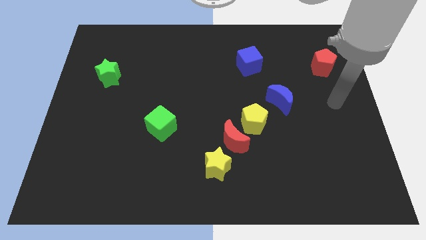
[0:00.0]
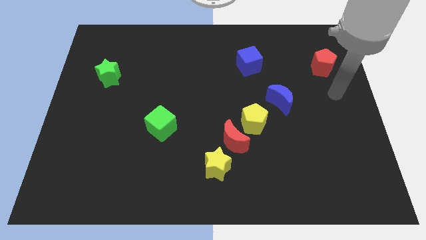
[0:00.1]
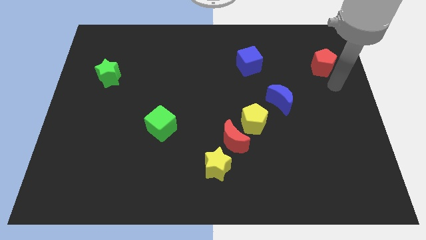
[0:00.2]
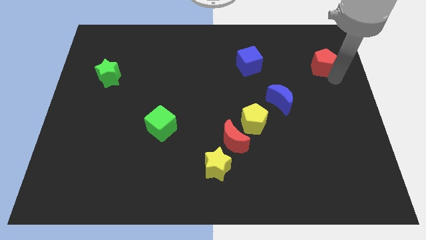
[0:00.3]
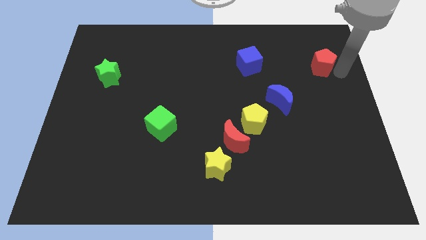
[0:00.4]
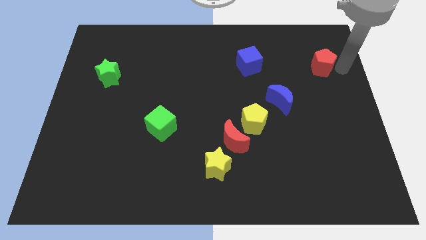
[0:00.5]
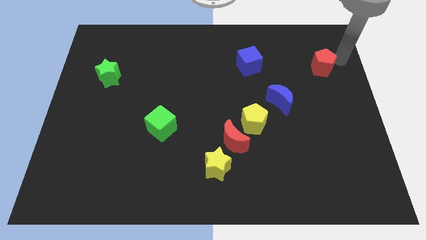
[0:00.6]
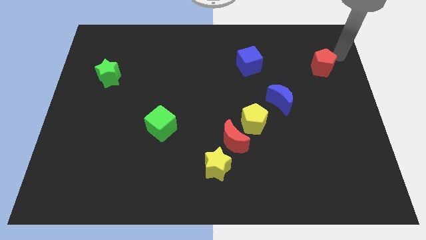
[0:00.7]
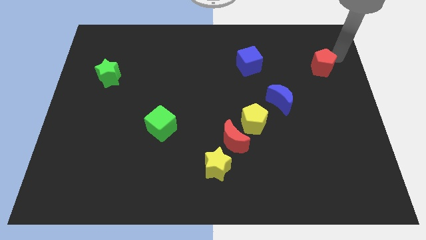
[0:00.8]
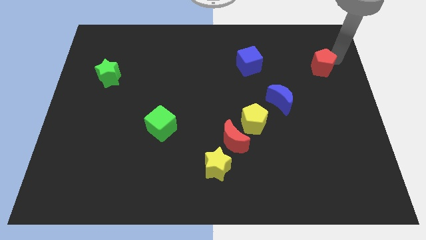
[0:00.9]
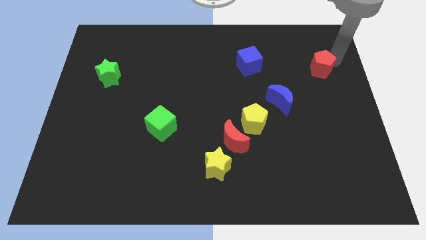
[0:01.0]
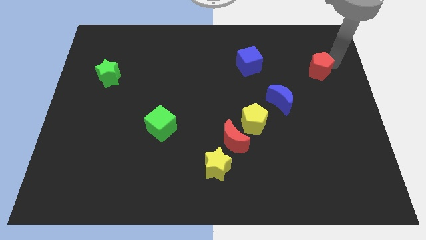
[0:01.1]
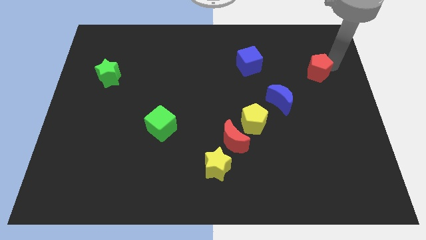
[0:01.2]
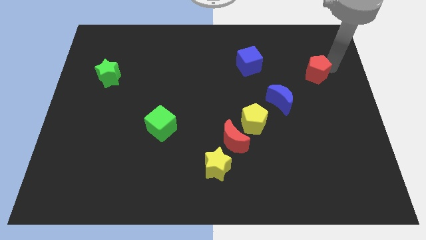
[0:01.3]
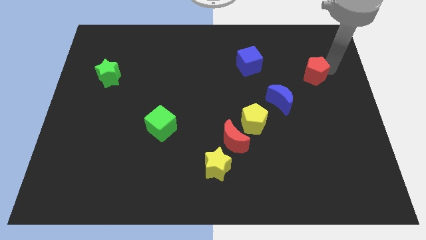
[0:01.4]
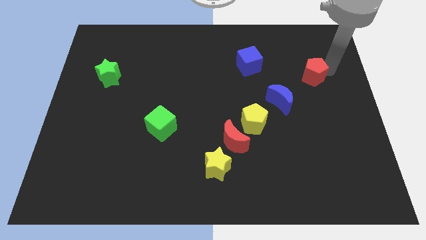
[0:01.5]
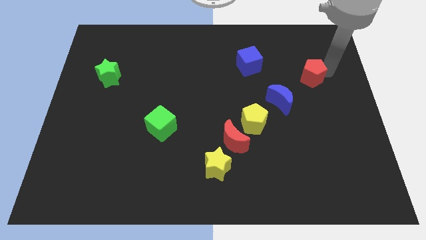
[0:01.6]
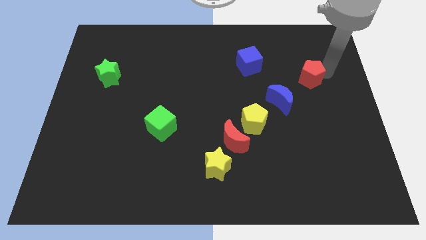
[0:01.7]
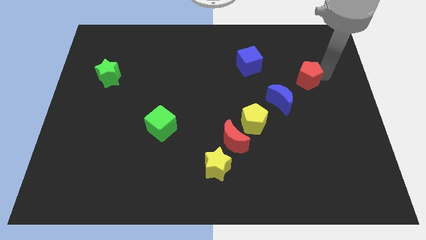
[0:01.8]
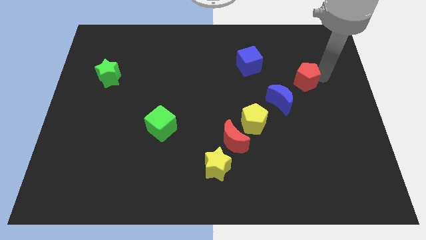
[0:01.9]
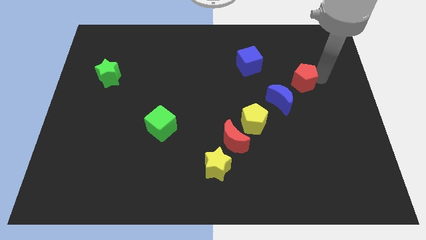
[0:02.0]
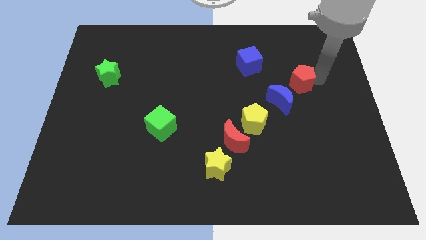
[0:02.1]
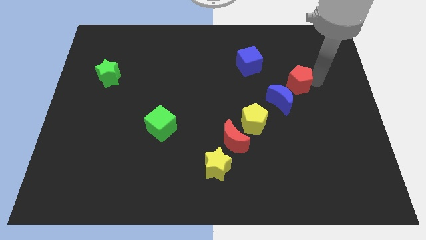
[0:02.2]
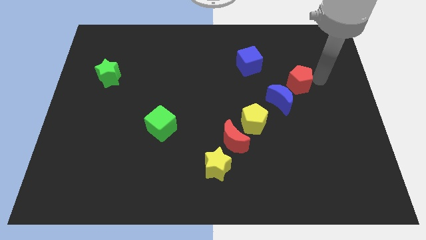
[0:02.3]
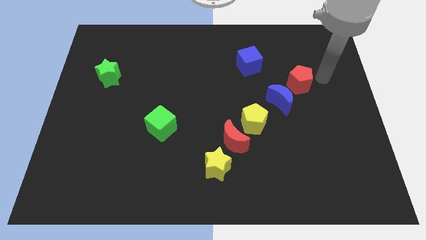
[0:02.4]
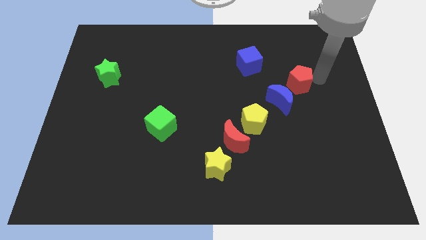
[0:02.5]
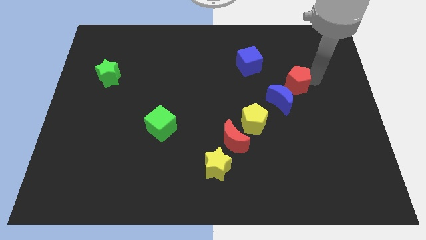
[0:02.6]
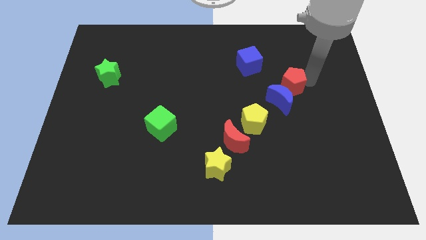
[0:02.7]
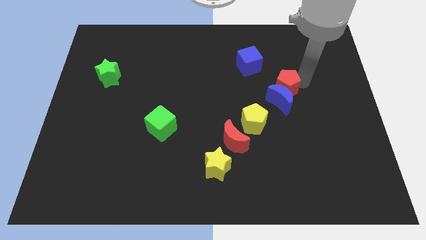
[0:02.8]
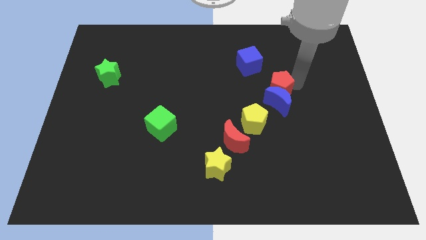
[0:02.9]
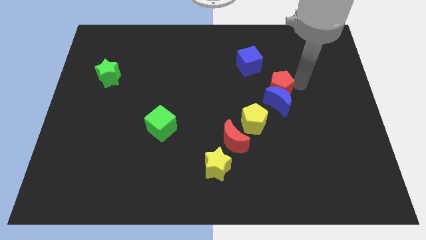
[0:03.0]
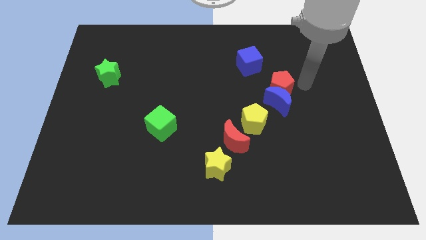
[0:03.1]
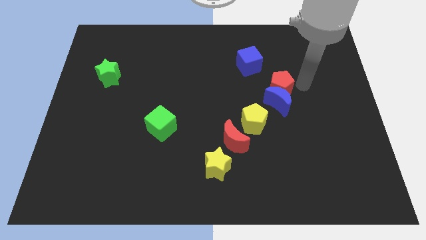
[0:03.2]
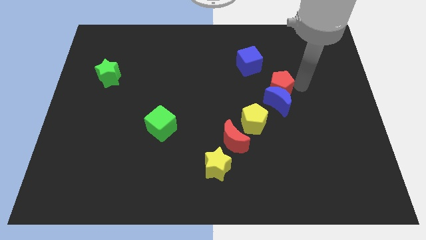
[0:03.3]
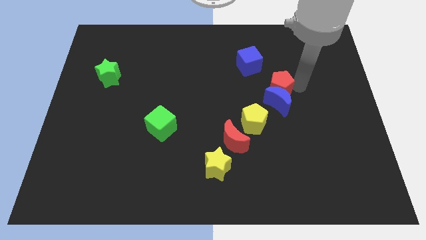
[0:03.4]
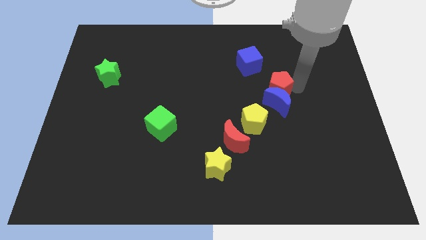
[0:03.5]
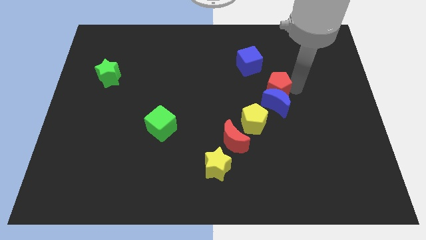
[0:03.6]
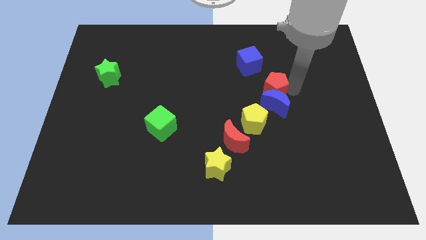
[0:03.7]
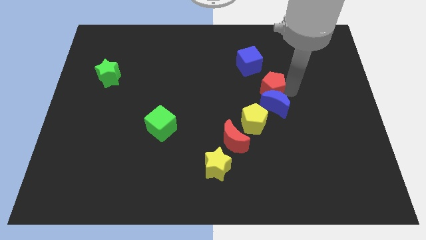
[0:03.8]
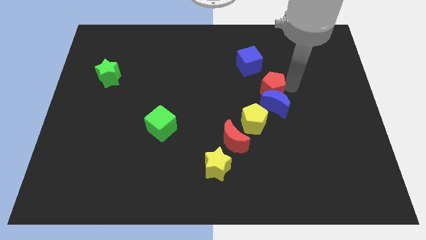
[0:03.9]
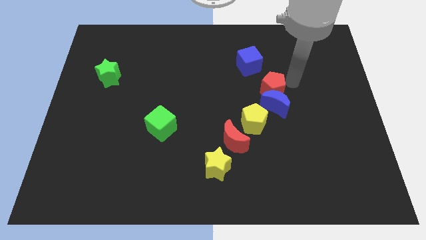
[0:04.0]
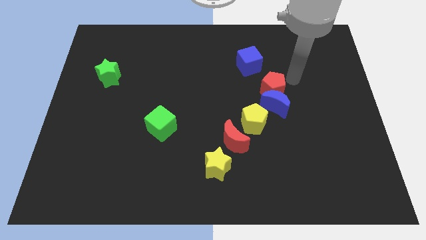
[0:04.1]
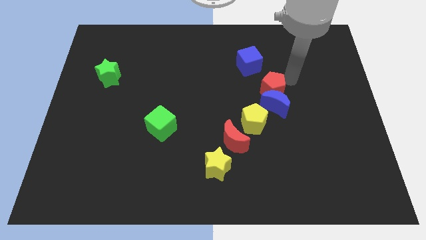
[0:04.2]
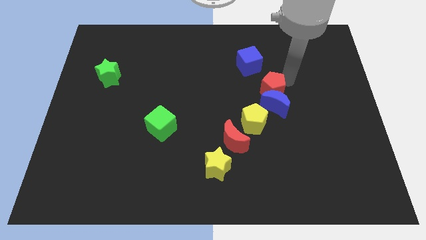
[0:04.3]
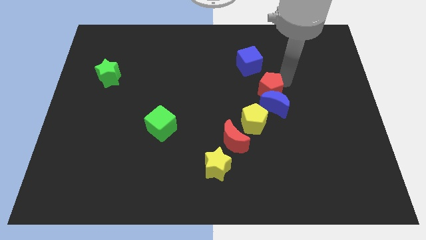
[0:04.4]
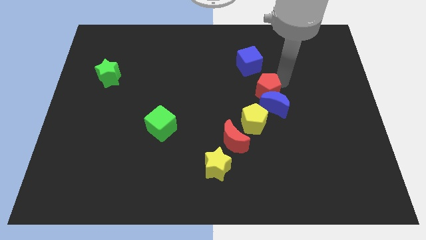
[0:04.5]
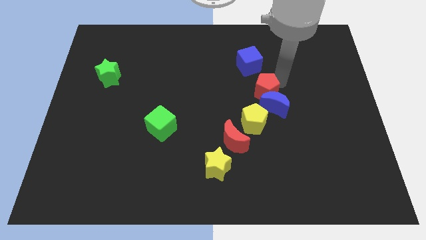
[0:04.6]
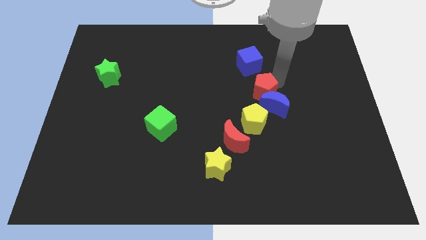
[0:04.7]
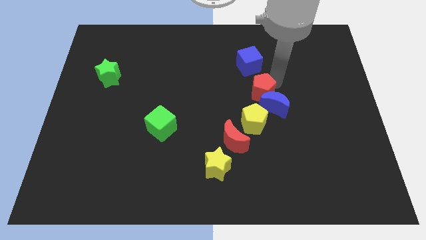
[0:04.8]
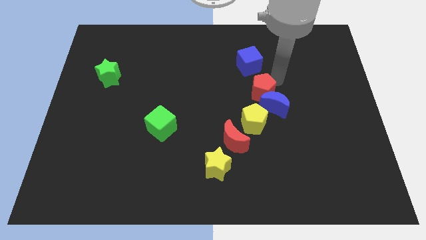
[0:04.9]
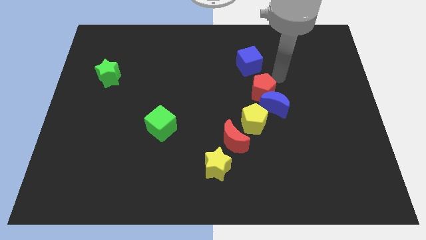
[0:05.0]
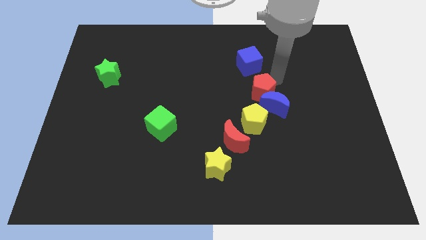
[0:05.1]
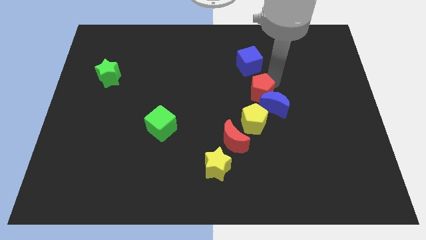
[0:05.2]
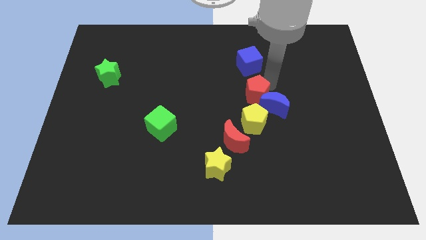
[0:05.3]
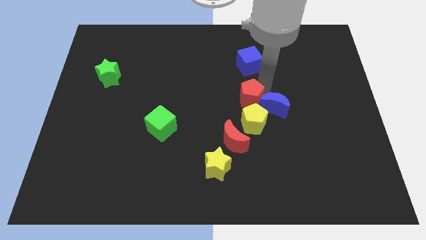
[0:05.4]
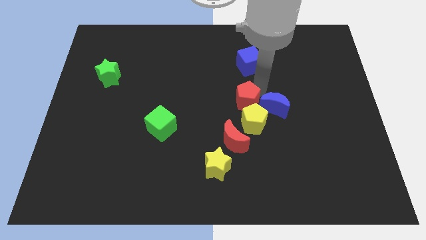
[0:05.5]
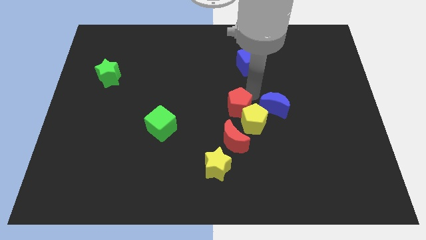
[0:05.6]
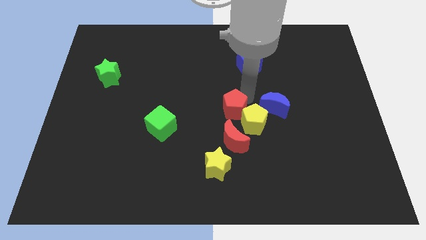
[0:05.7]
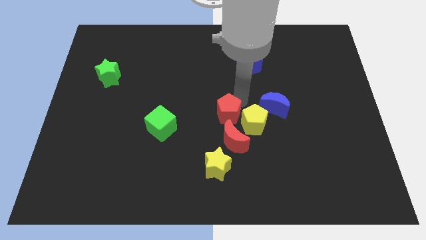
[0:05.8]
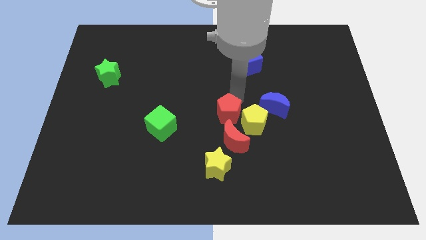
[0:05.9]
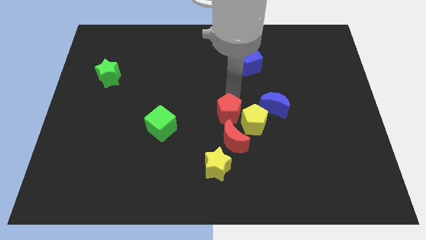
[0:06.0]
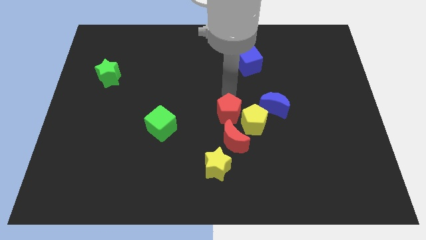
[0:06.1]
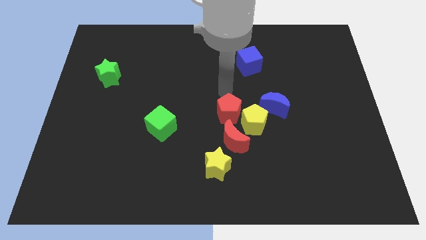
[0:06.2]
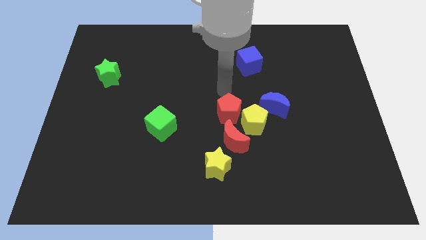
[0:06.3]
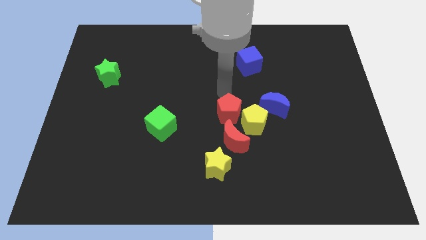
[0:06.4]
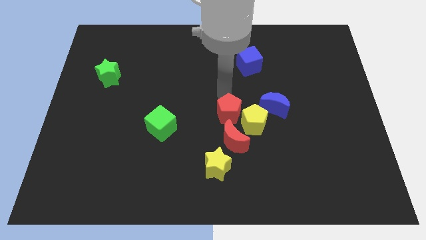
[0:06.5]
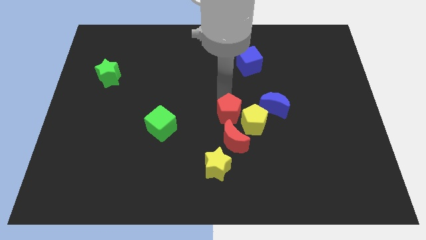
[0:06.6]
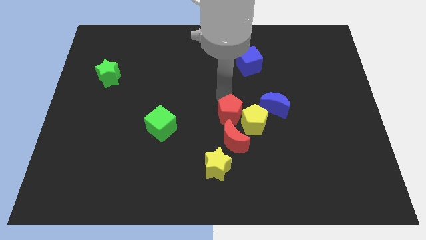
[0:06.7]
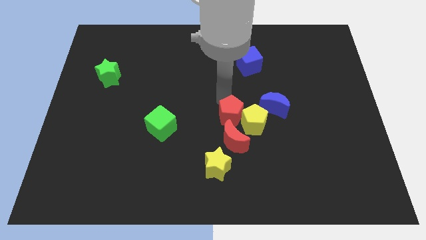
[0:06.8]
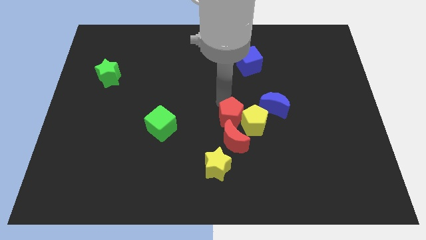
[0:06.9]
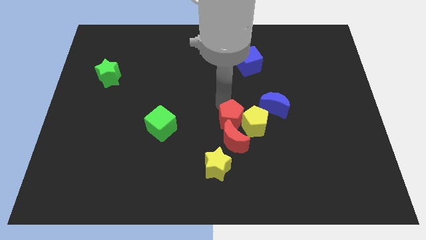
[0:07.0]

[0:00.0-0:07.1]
move the red pentagon close to the red moon
